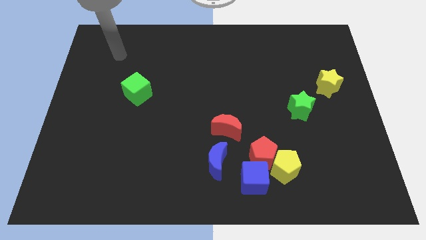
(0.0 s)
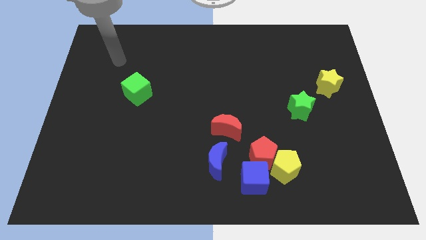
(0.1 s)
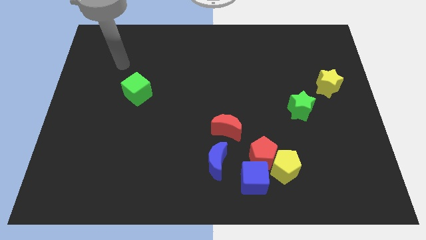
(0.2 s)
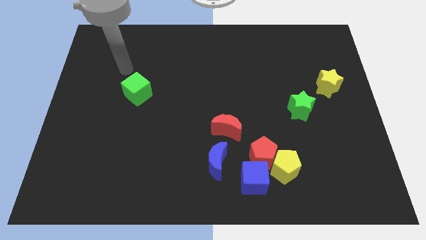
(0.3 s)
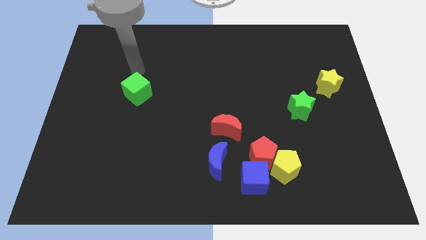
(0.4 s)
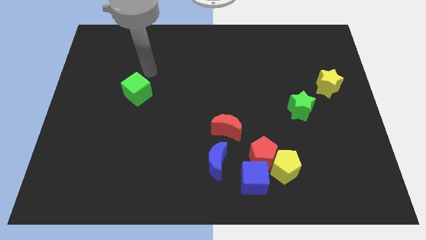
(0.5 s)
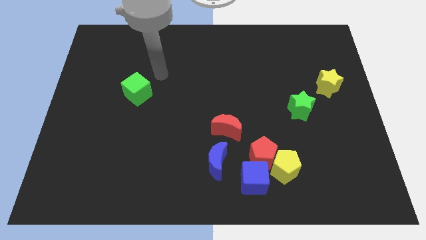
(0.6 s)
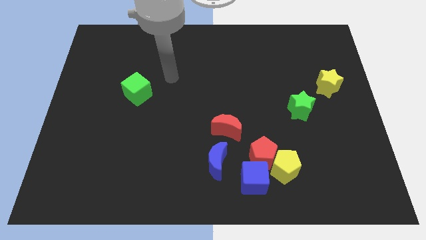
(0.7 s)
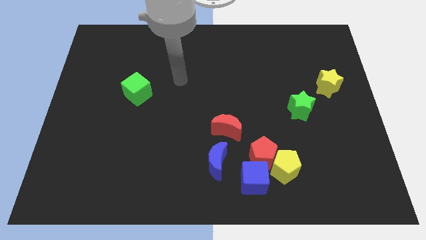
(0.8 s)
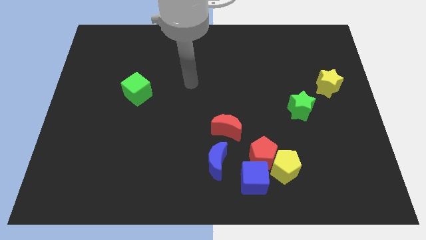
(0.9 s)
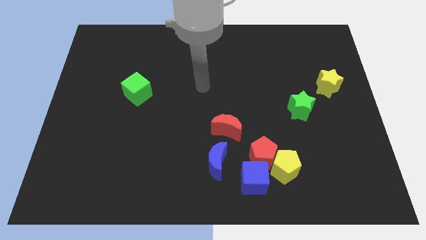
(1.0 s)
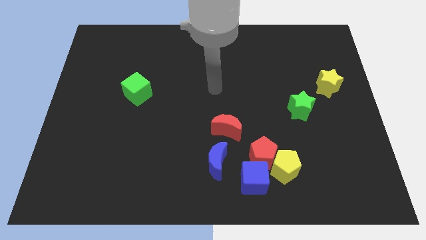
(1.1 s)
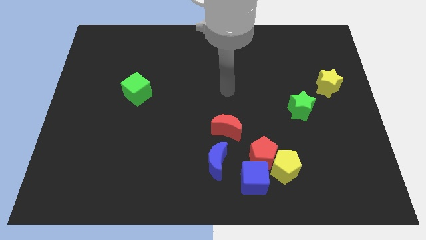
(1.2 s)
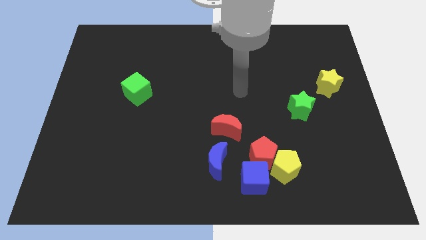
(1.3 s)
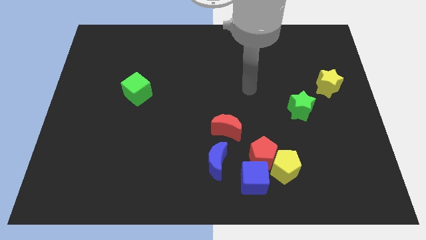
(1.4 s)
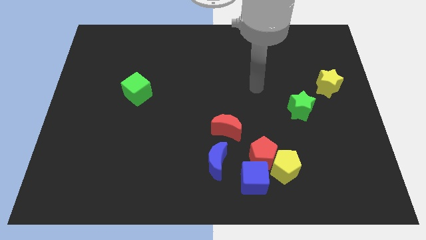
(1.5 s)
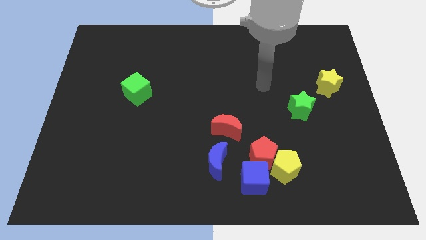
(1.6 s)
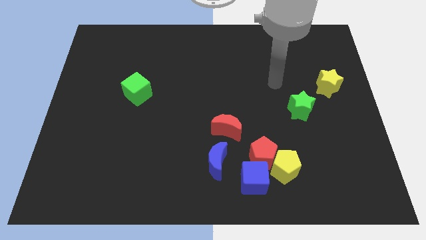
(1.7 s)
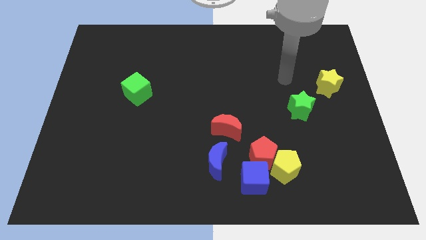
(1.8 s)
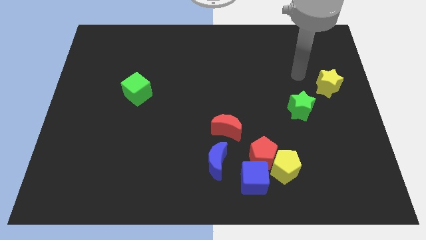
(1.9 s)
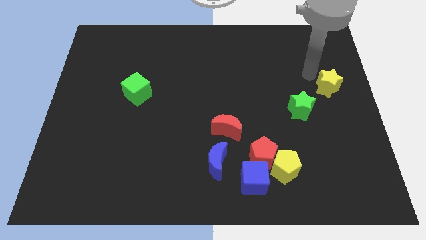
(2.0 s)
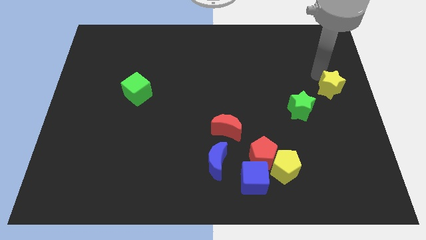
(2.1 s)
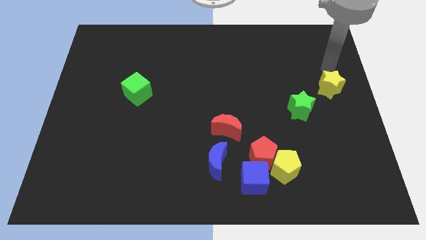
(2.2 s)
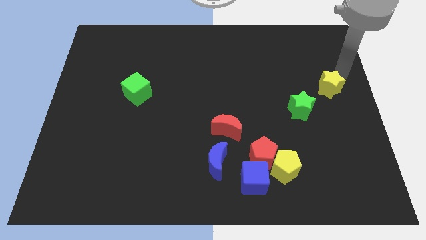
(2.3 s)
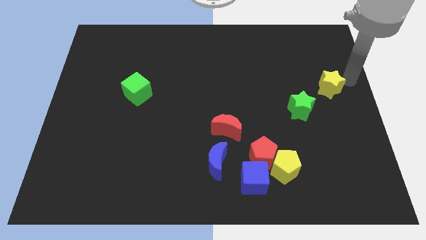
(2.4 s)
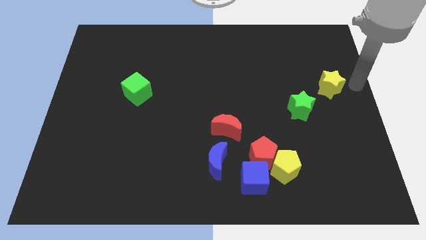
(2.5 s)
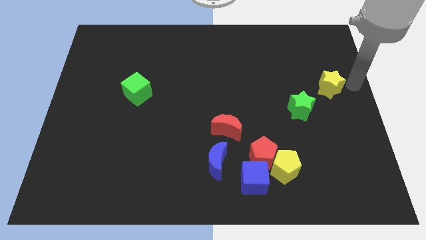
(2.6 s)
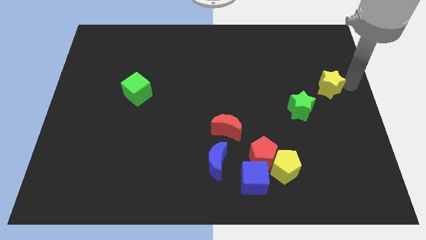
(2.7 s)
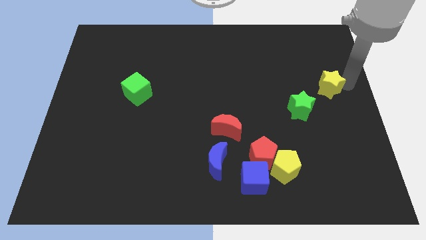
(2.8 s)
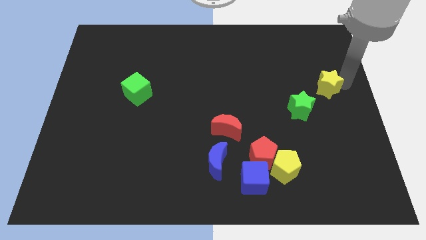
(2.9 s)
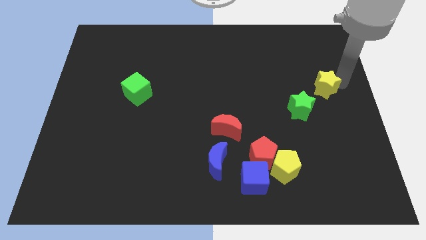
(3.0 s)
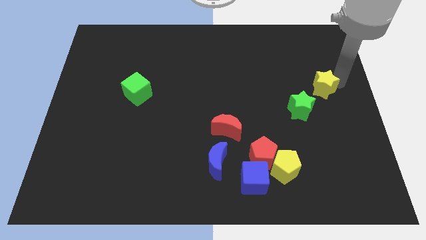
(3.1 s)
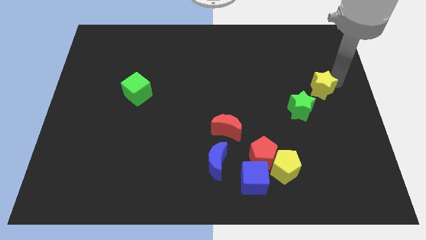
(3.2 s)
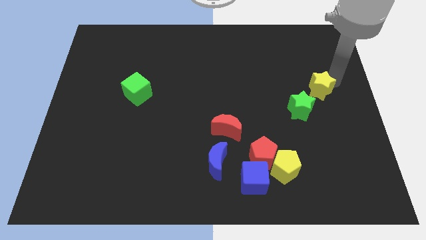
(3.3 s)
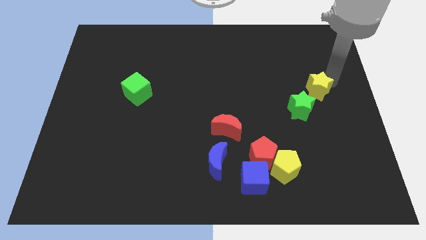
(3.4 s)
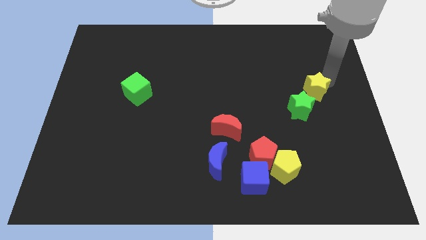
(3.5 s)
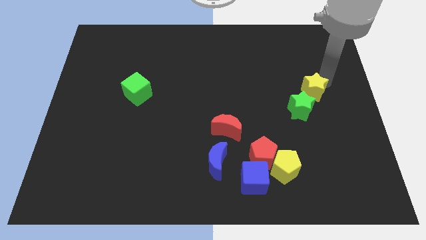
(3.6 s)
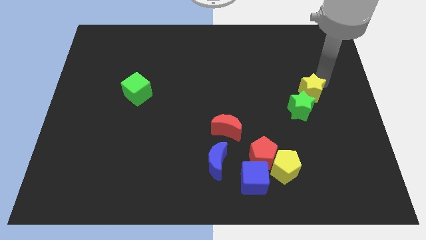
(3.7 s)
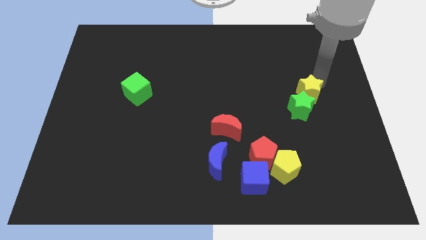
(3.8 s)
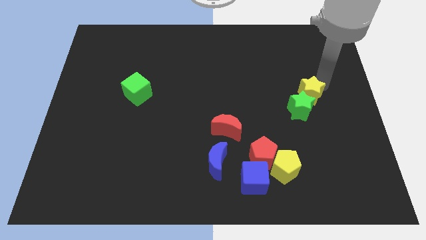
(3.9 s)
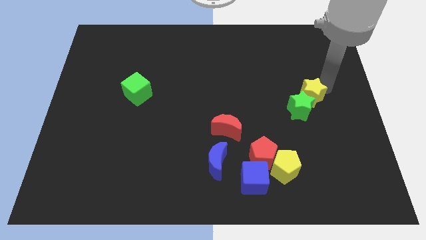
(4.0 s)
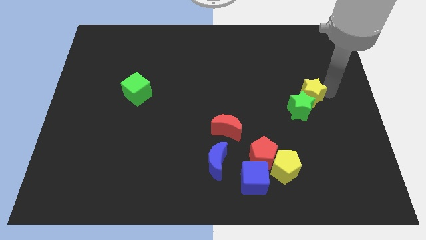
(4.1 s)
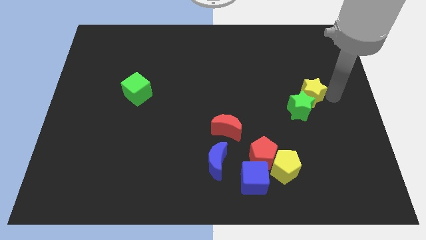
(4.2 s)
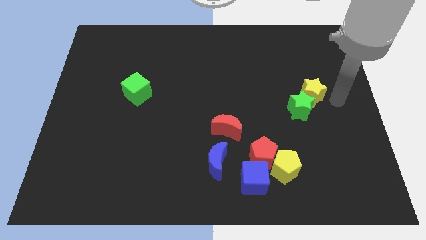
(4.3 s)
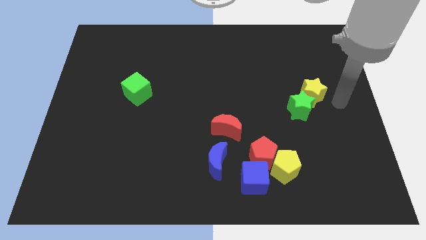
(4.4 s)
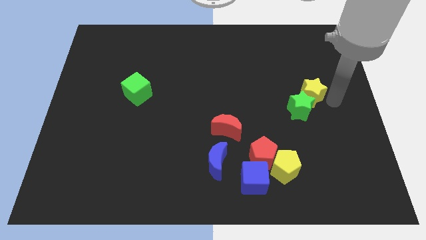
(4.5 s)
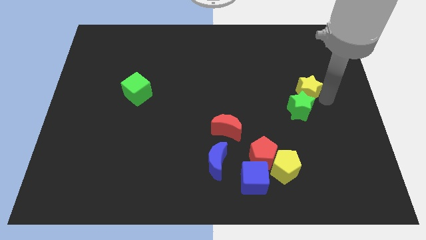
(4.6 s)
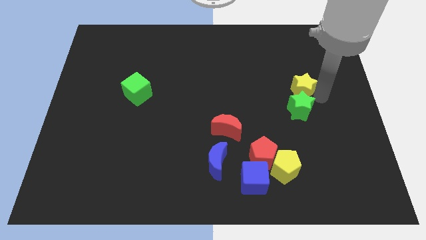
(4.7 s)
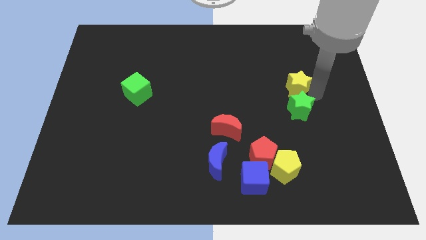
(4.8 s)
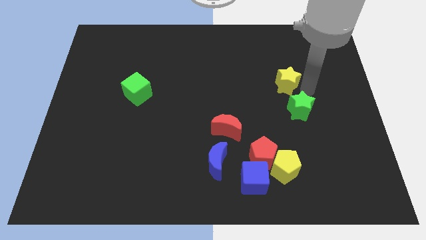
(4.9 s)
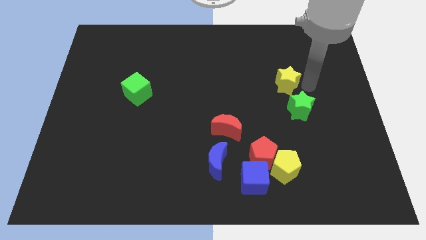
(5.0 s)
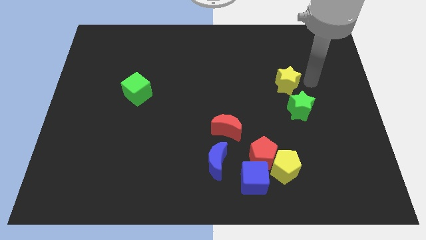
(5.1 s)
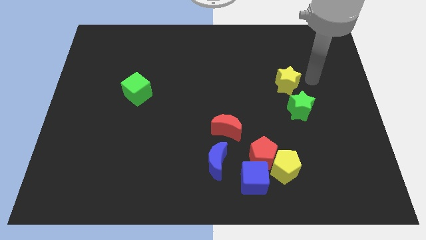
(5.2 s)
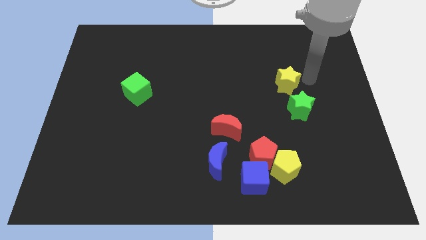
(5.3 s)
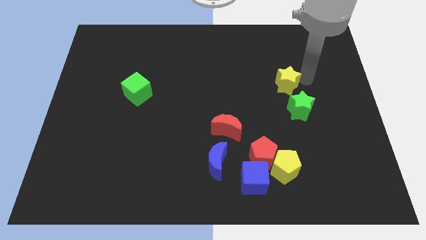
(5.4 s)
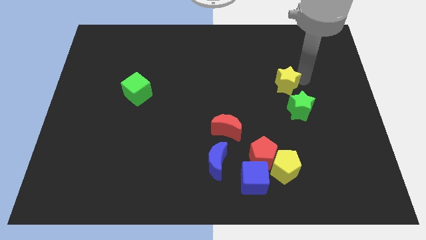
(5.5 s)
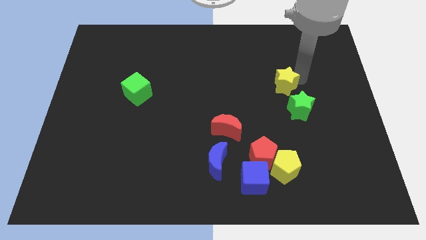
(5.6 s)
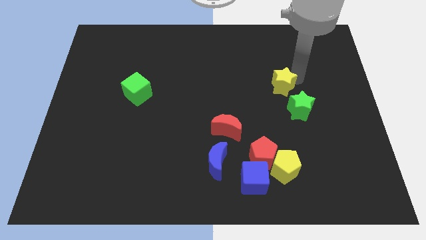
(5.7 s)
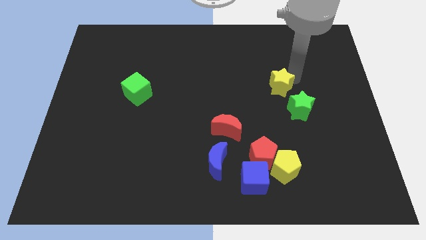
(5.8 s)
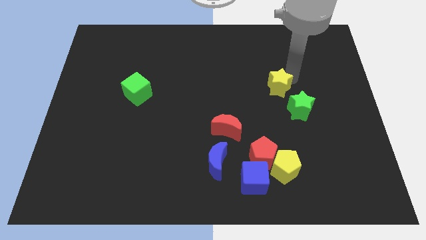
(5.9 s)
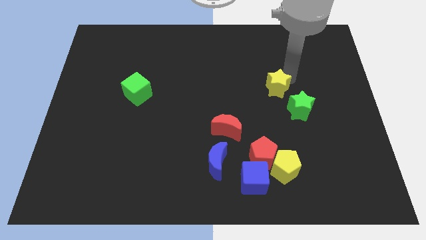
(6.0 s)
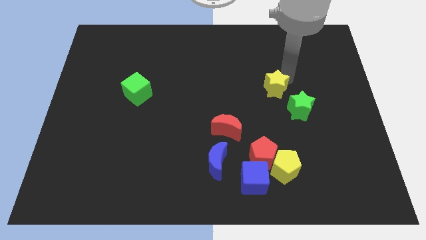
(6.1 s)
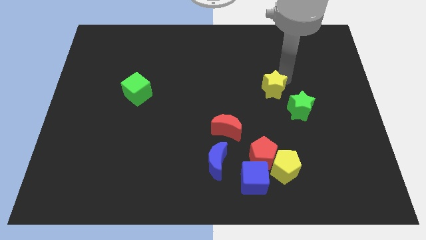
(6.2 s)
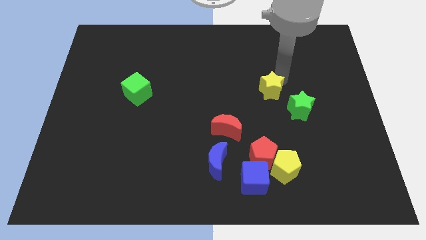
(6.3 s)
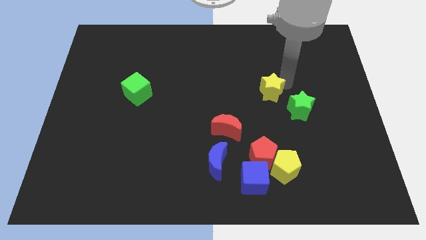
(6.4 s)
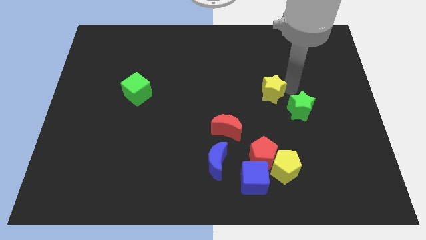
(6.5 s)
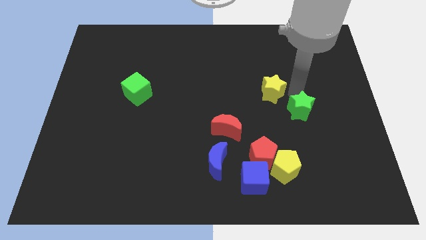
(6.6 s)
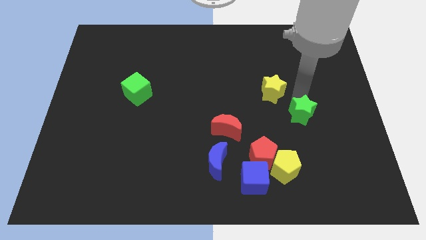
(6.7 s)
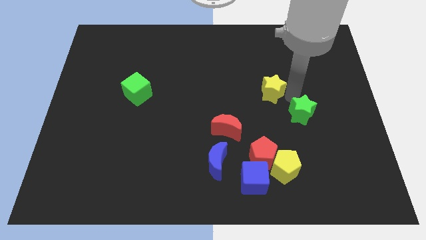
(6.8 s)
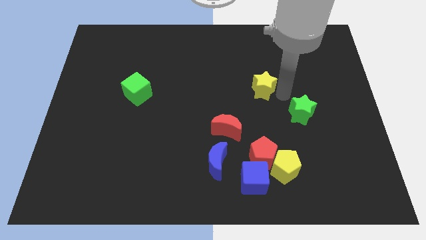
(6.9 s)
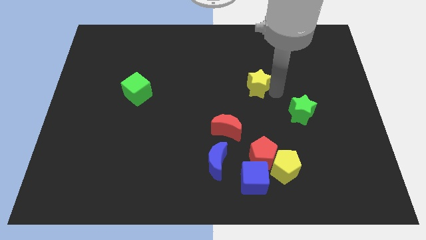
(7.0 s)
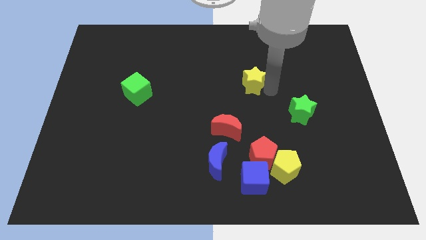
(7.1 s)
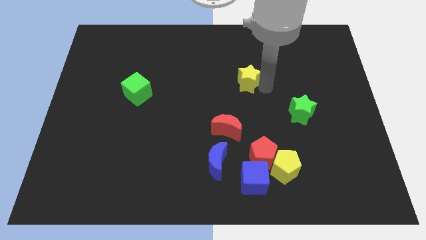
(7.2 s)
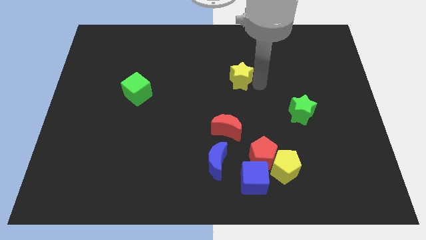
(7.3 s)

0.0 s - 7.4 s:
push the yellow star to the left
